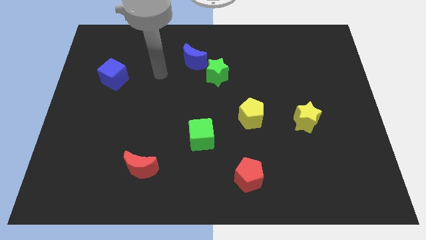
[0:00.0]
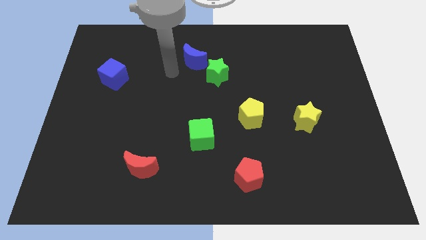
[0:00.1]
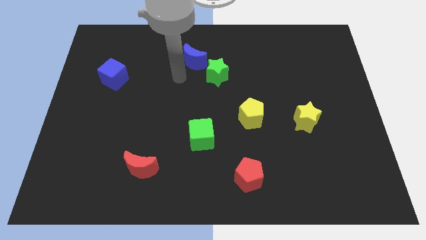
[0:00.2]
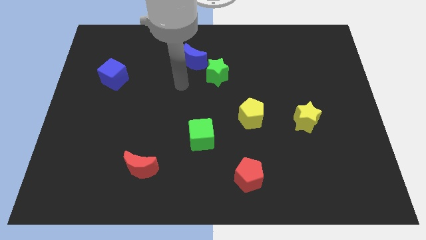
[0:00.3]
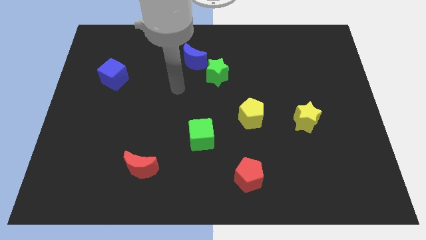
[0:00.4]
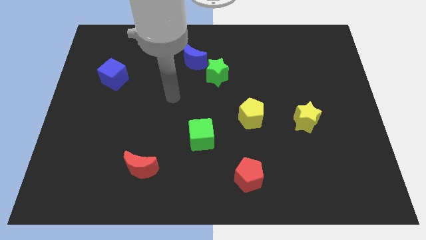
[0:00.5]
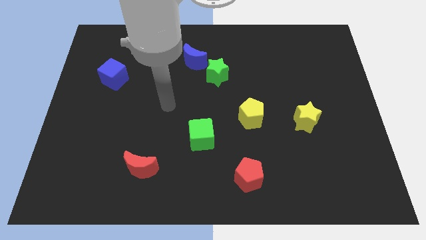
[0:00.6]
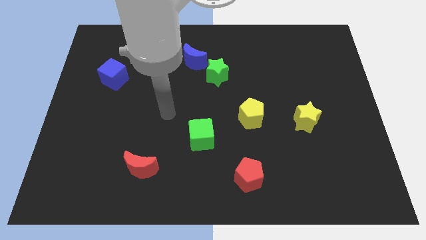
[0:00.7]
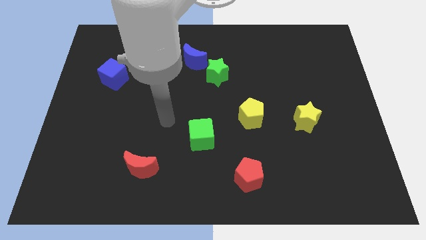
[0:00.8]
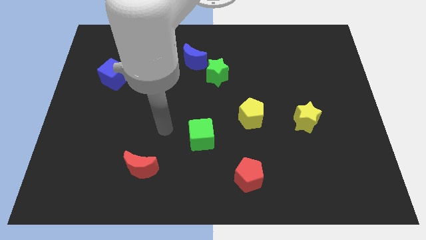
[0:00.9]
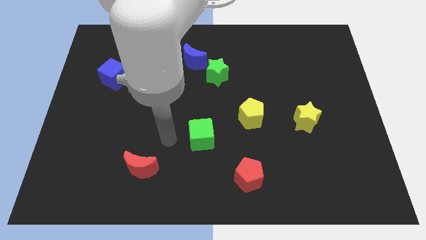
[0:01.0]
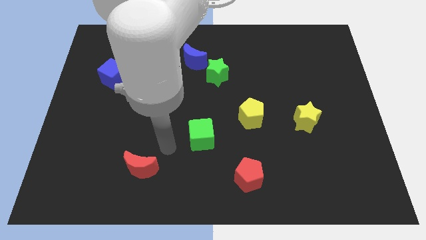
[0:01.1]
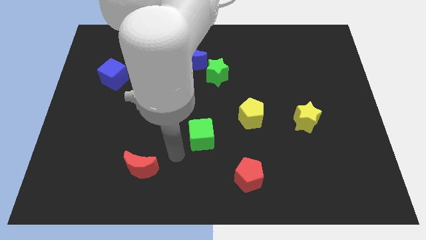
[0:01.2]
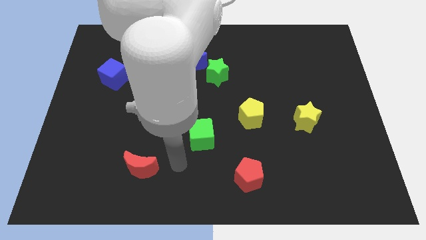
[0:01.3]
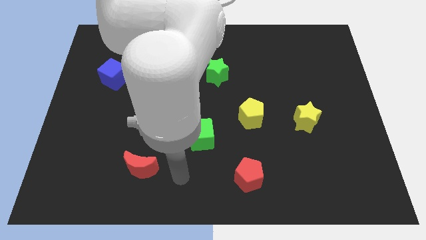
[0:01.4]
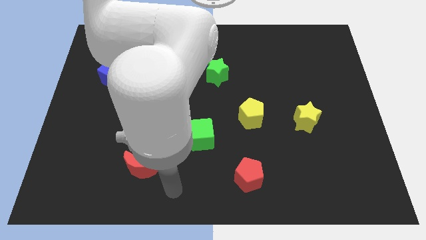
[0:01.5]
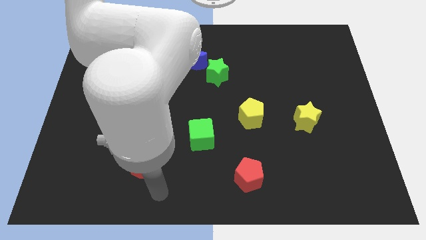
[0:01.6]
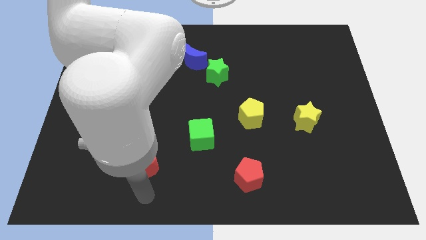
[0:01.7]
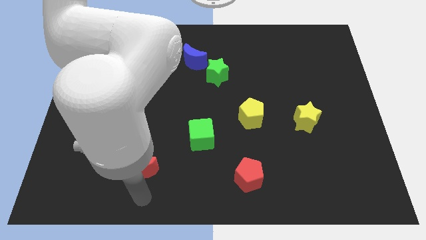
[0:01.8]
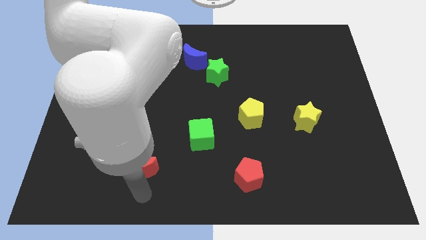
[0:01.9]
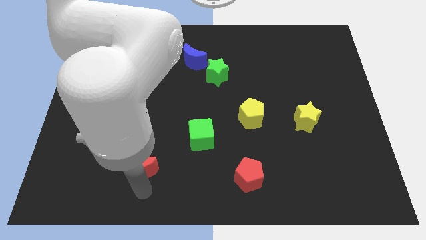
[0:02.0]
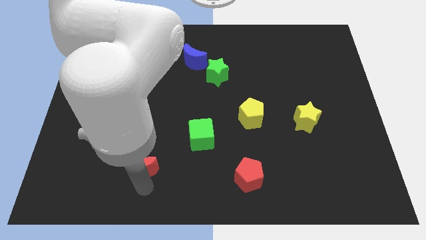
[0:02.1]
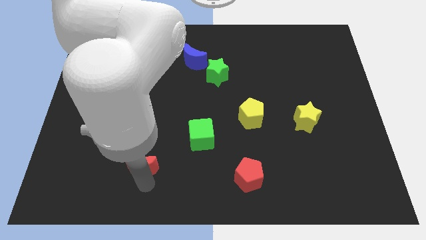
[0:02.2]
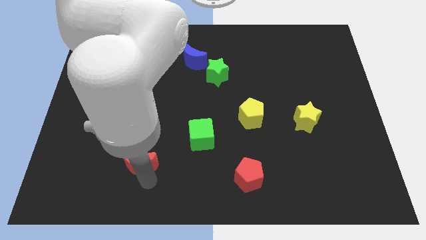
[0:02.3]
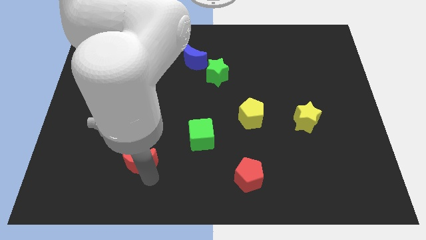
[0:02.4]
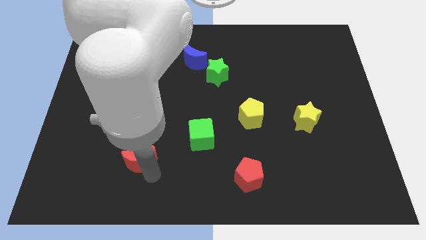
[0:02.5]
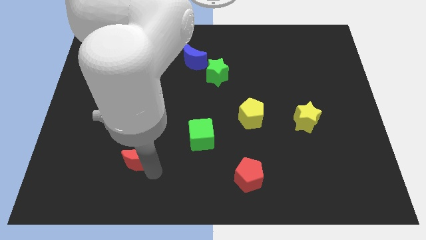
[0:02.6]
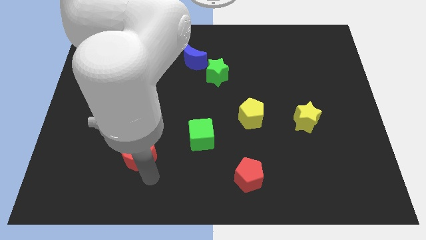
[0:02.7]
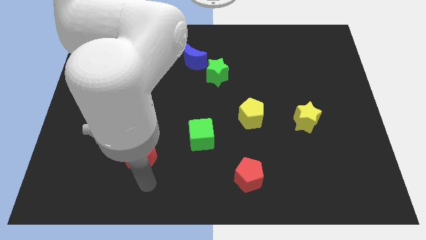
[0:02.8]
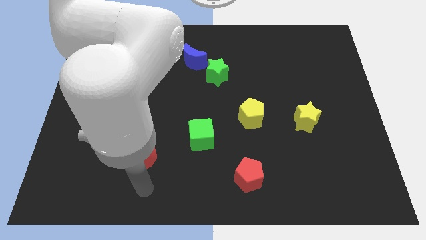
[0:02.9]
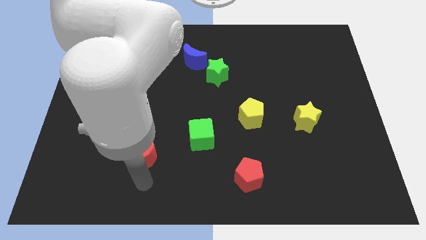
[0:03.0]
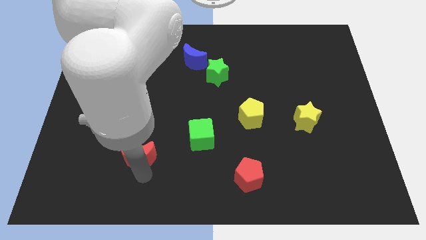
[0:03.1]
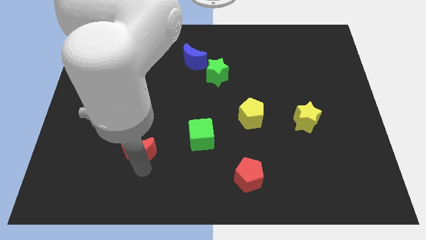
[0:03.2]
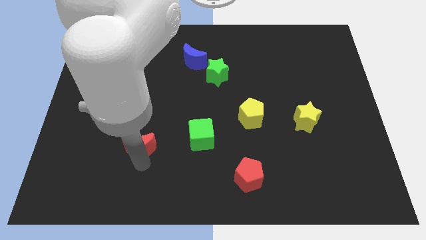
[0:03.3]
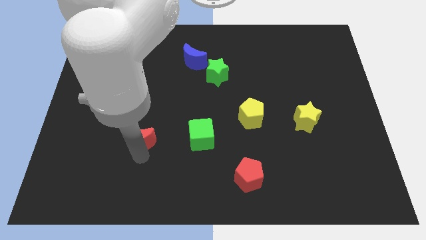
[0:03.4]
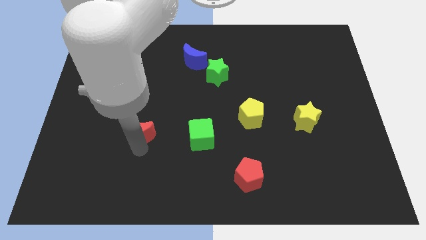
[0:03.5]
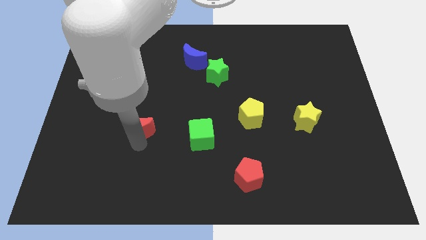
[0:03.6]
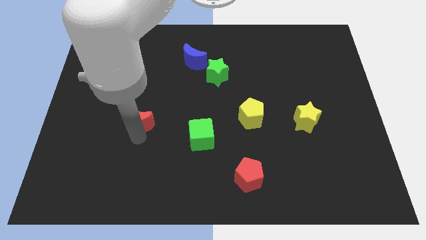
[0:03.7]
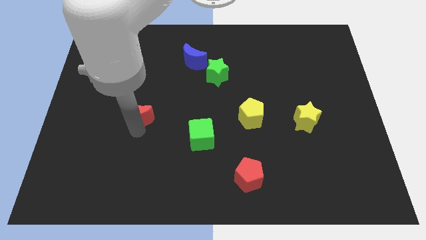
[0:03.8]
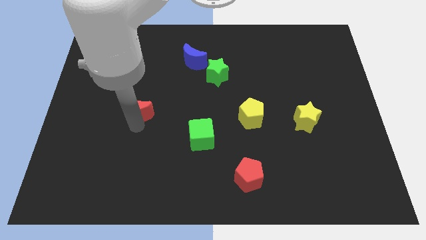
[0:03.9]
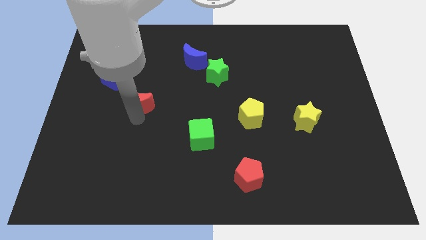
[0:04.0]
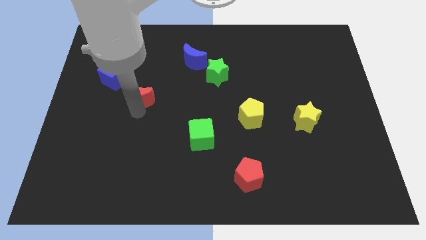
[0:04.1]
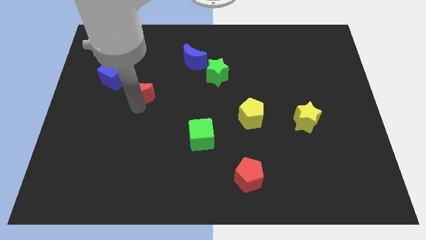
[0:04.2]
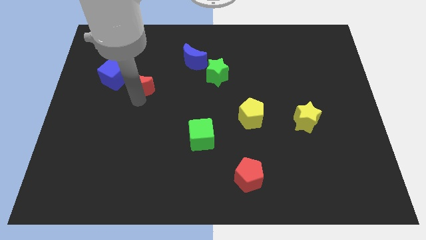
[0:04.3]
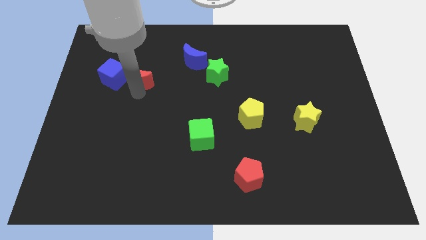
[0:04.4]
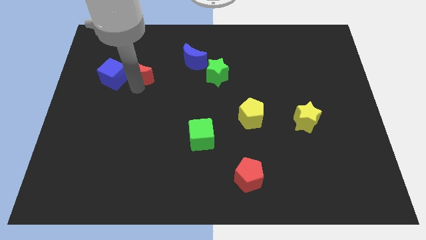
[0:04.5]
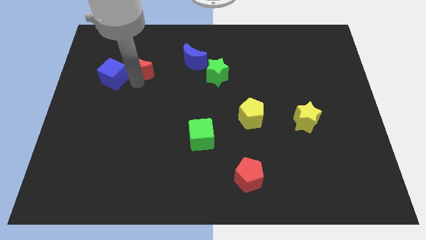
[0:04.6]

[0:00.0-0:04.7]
put the red moon just left of the blue moon

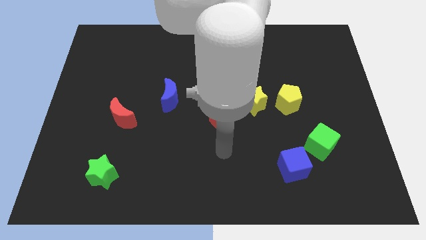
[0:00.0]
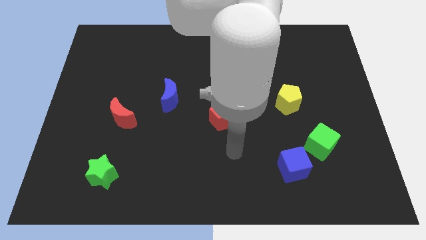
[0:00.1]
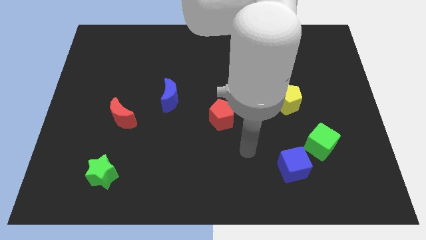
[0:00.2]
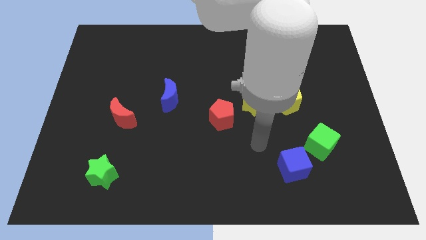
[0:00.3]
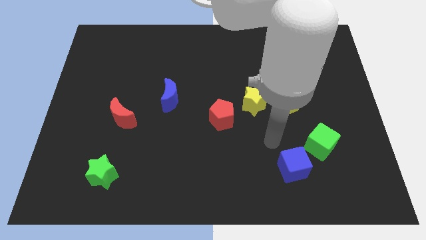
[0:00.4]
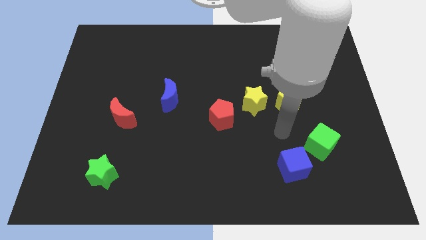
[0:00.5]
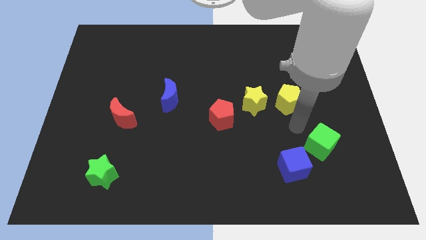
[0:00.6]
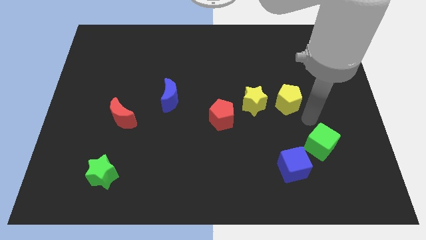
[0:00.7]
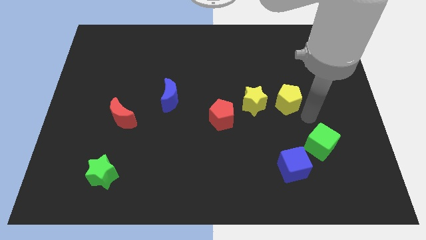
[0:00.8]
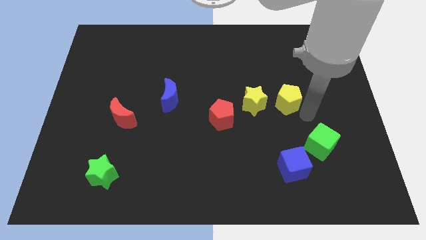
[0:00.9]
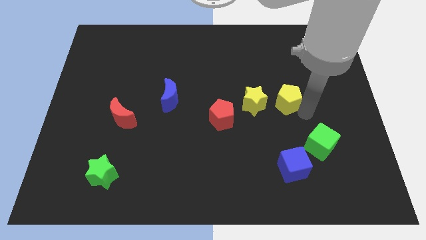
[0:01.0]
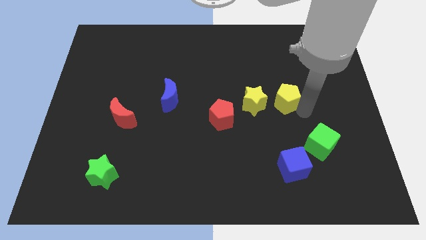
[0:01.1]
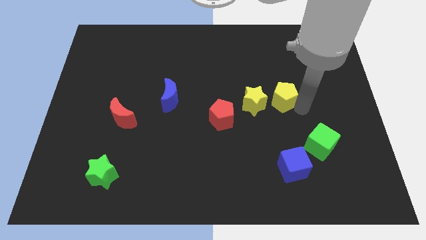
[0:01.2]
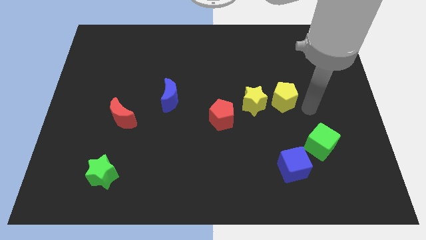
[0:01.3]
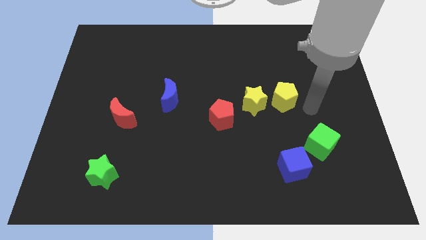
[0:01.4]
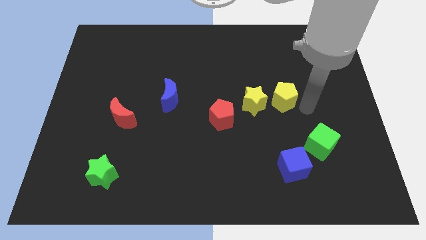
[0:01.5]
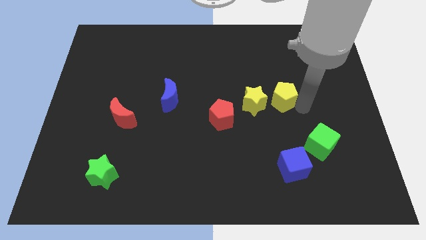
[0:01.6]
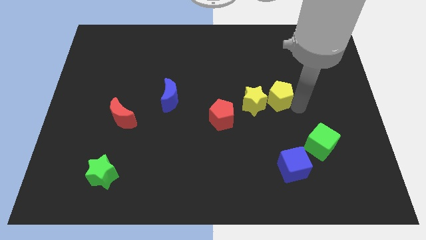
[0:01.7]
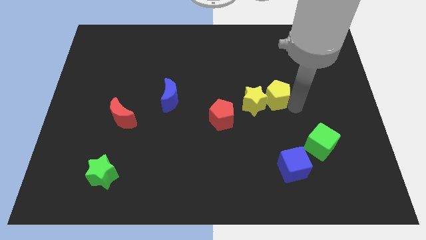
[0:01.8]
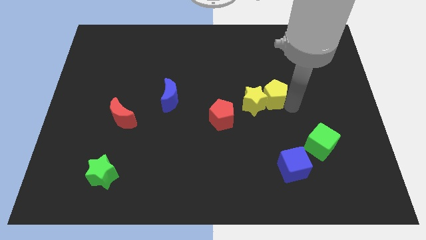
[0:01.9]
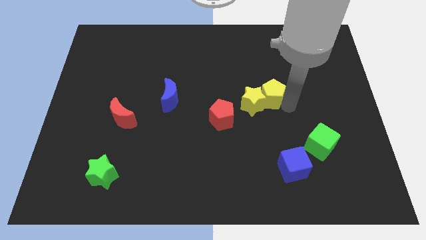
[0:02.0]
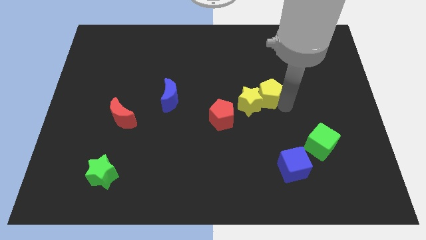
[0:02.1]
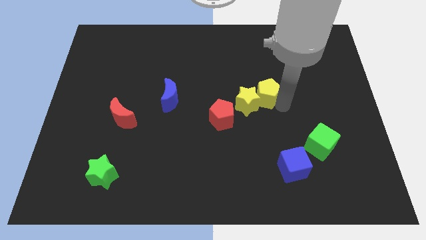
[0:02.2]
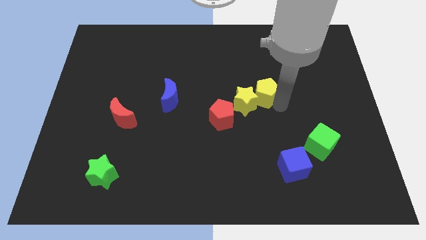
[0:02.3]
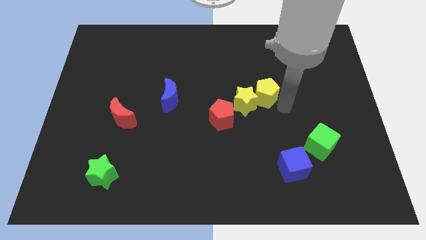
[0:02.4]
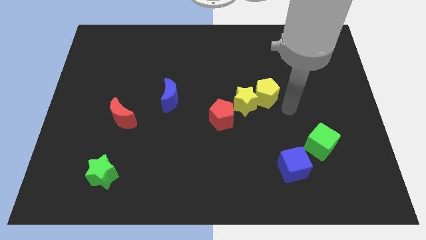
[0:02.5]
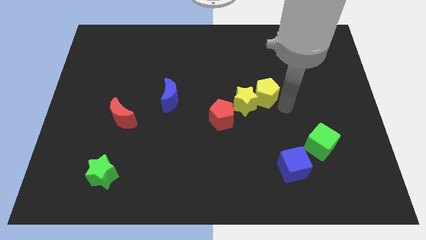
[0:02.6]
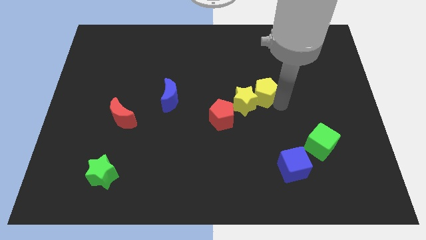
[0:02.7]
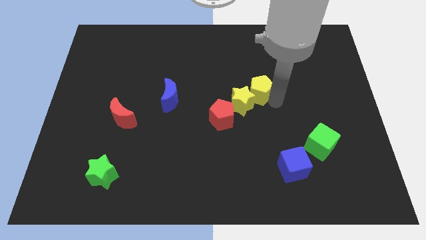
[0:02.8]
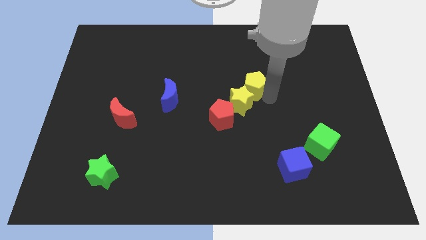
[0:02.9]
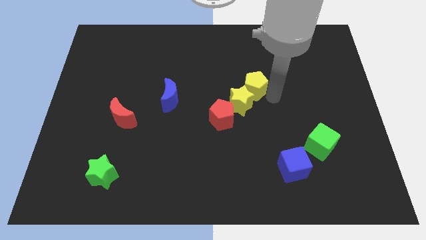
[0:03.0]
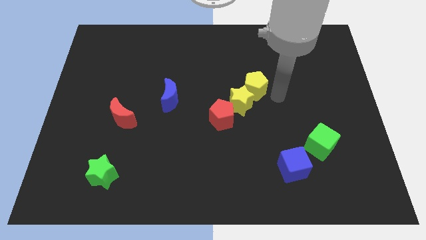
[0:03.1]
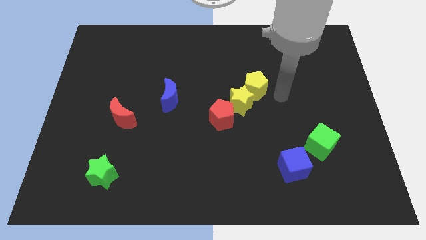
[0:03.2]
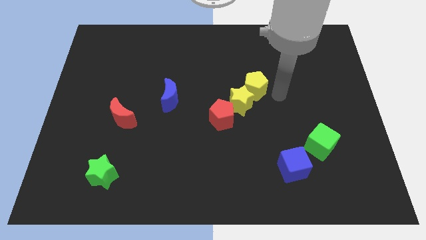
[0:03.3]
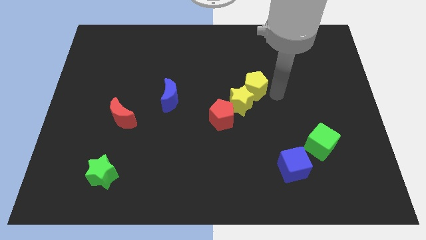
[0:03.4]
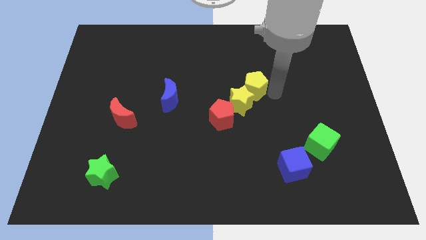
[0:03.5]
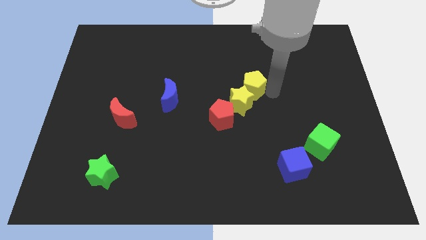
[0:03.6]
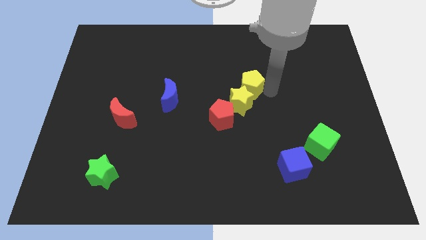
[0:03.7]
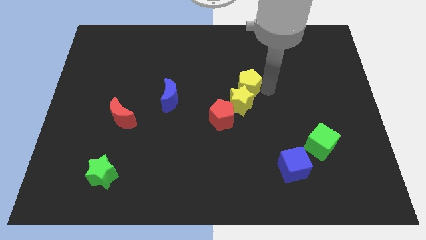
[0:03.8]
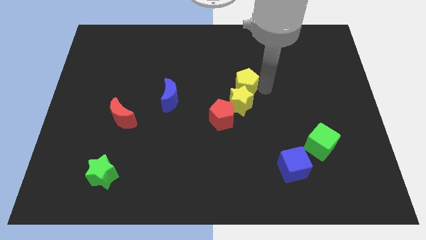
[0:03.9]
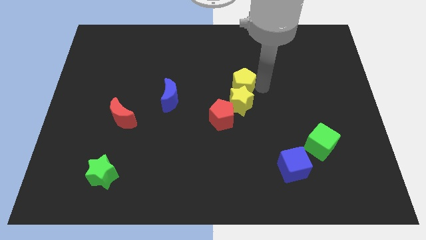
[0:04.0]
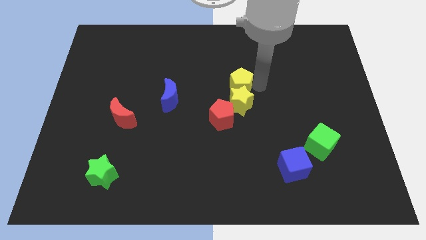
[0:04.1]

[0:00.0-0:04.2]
move the yellow pentagon to the top side of the red pentagon
